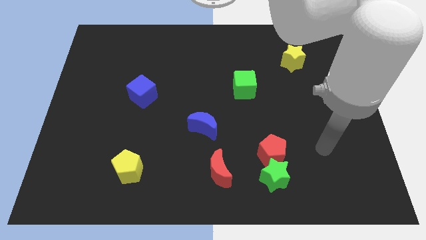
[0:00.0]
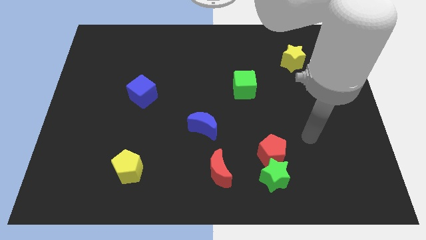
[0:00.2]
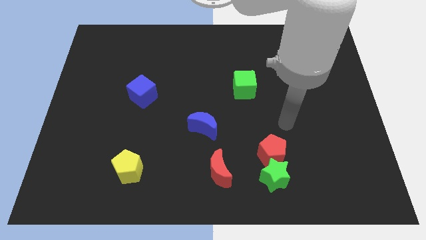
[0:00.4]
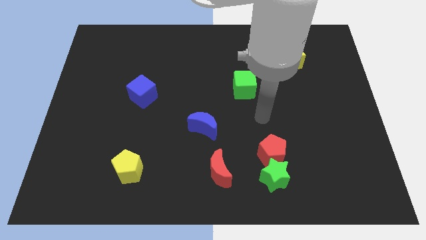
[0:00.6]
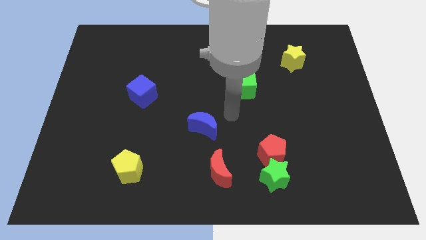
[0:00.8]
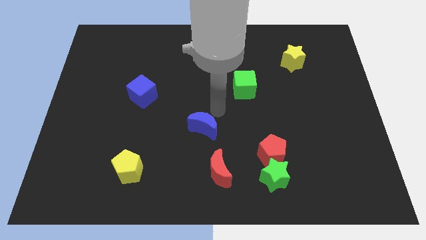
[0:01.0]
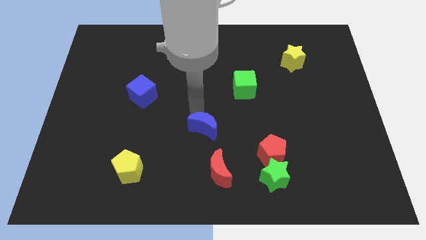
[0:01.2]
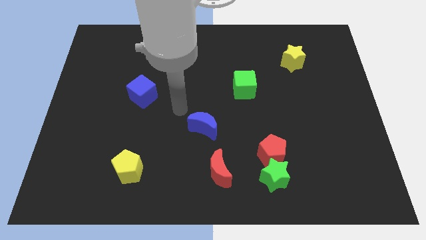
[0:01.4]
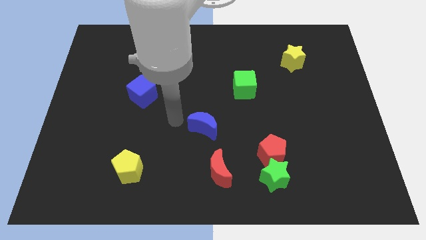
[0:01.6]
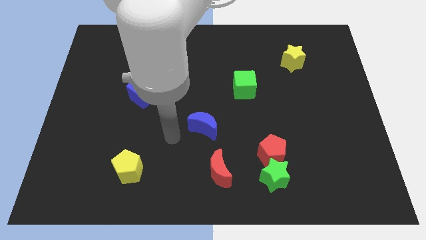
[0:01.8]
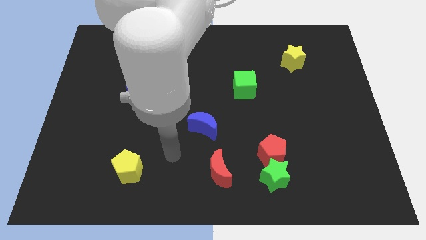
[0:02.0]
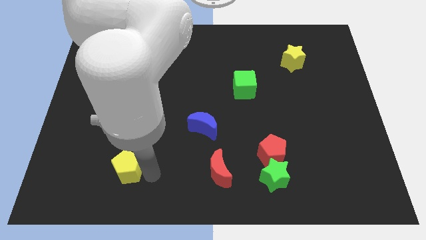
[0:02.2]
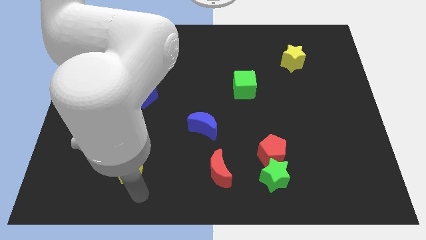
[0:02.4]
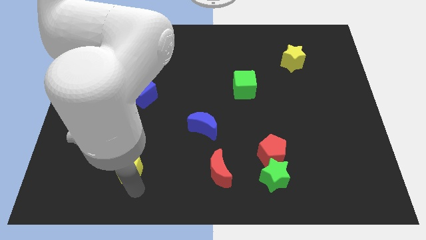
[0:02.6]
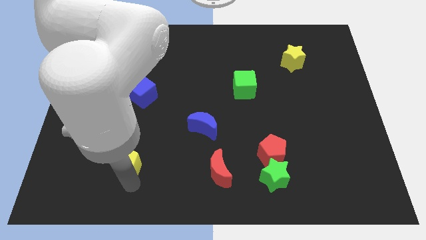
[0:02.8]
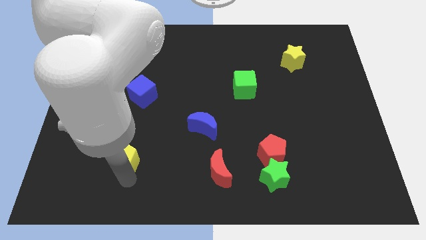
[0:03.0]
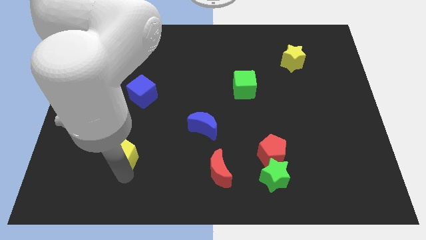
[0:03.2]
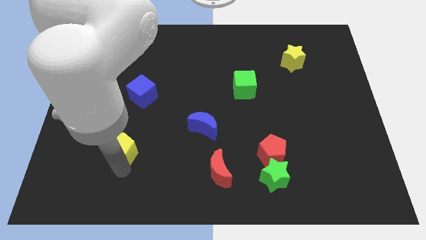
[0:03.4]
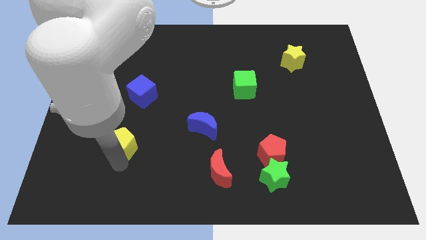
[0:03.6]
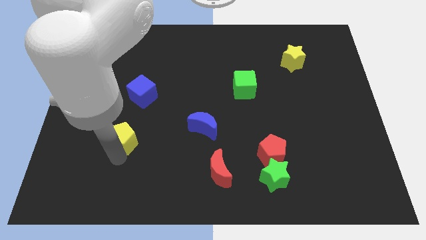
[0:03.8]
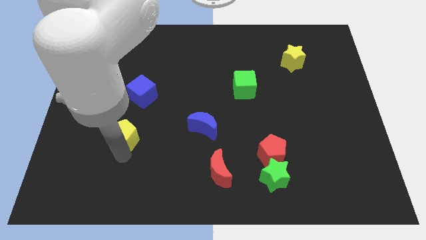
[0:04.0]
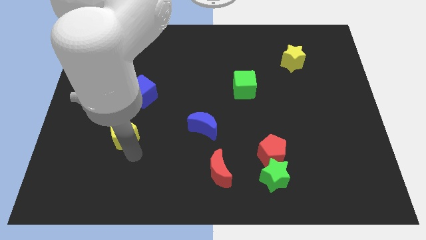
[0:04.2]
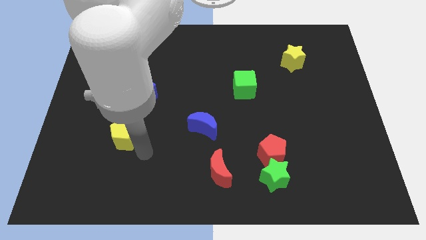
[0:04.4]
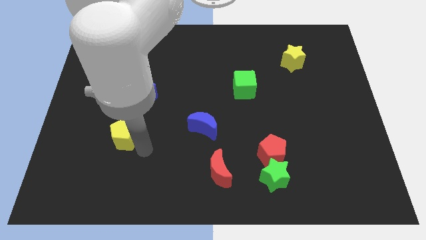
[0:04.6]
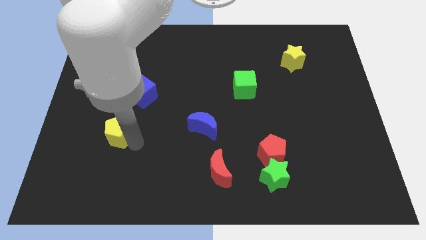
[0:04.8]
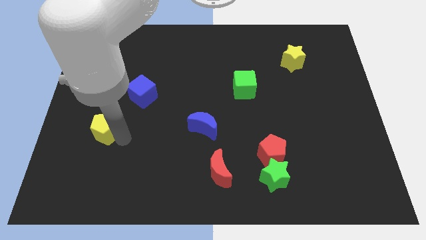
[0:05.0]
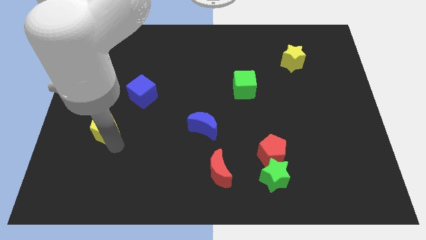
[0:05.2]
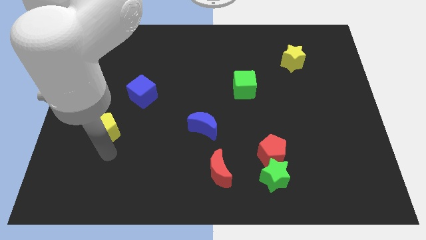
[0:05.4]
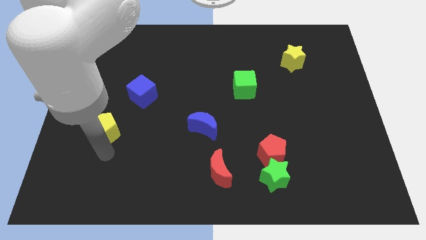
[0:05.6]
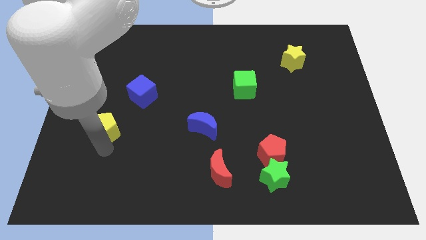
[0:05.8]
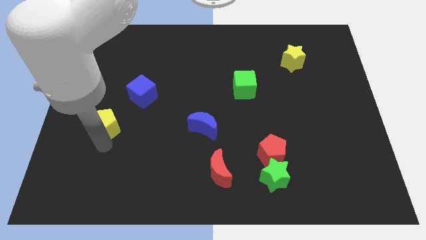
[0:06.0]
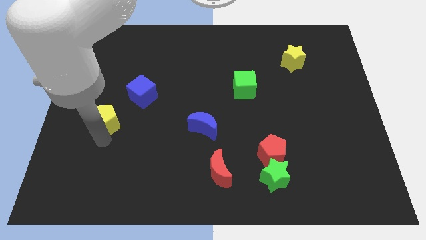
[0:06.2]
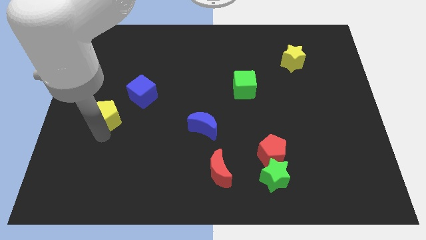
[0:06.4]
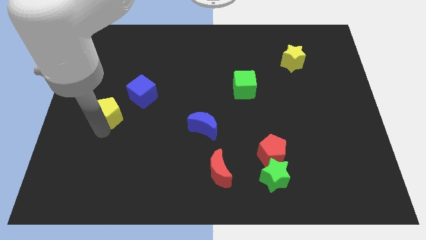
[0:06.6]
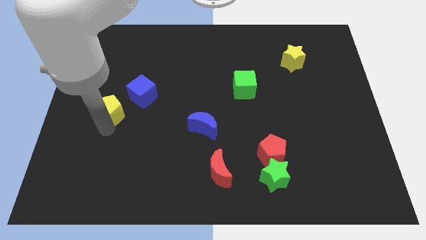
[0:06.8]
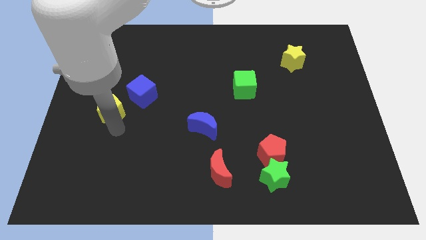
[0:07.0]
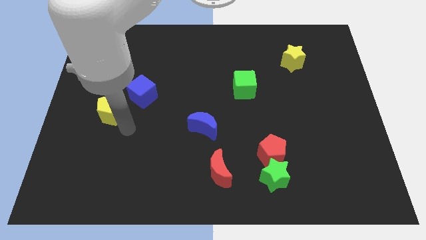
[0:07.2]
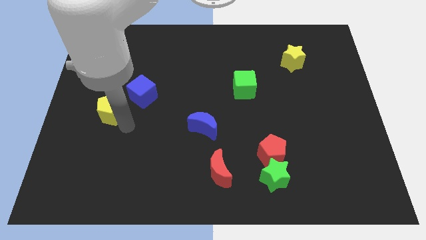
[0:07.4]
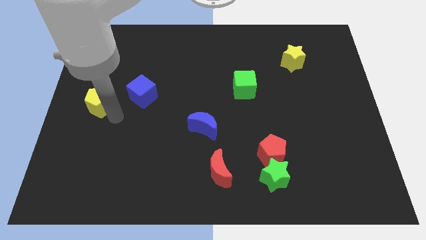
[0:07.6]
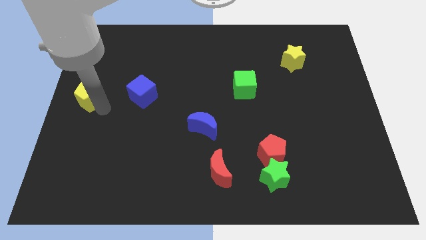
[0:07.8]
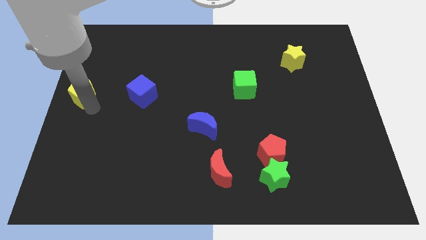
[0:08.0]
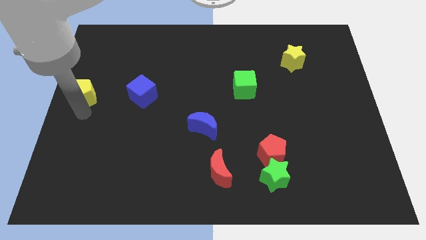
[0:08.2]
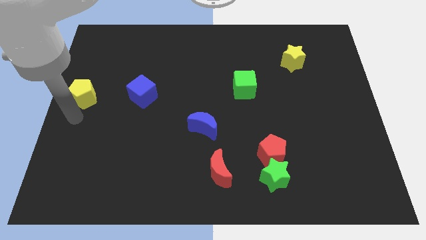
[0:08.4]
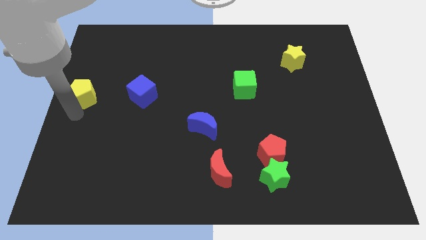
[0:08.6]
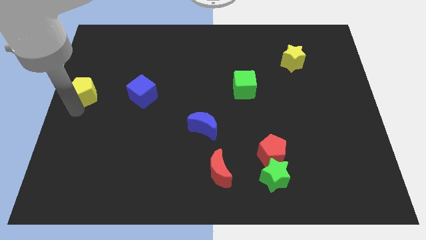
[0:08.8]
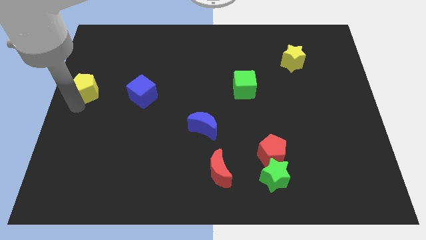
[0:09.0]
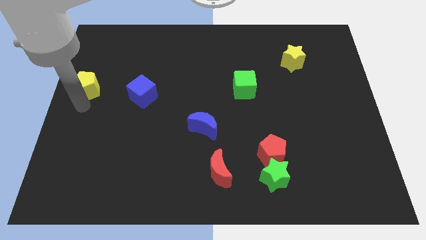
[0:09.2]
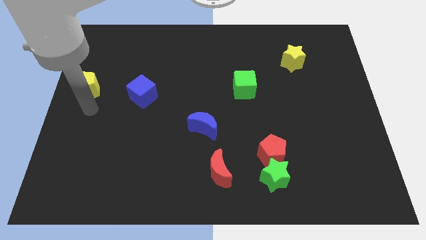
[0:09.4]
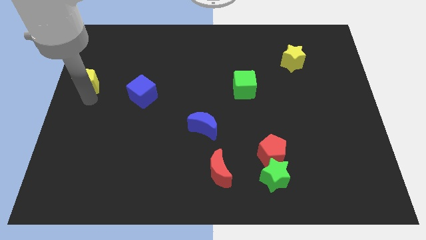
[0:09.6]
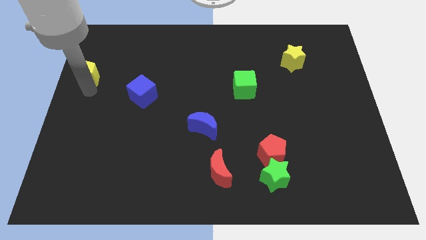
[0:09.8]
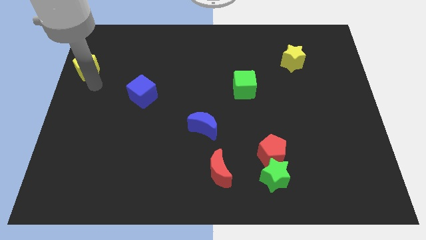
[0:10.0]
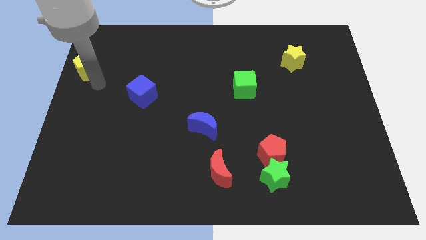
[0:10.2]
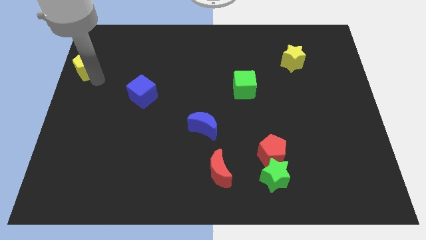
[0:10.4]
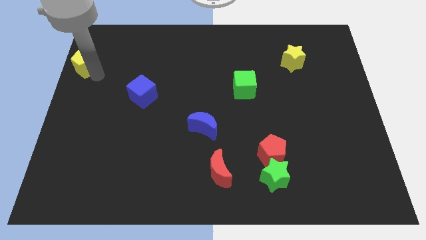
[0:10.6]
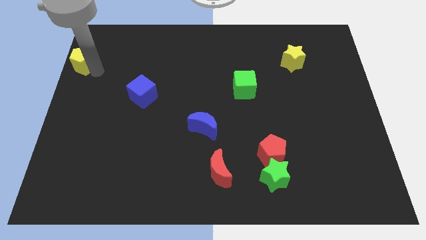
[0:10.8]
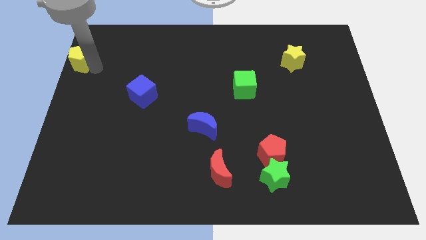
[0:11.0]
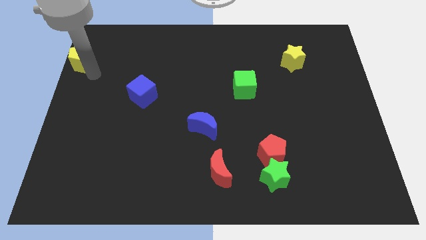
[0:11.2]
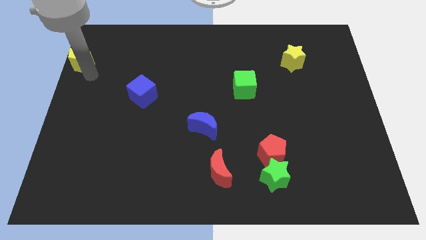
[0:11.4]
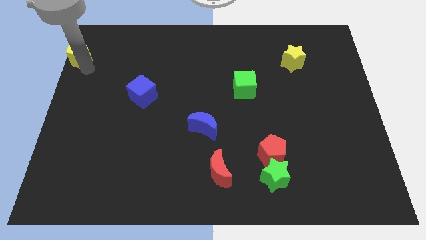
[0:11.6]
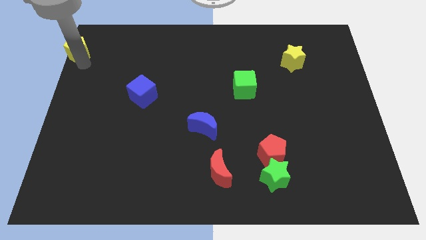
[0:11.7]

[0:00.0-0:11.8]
move the yellow pentagon to the upper left corner
